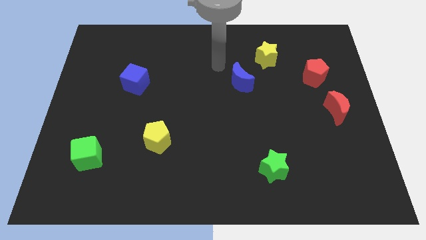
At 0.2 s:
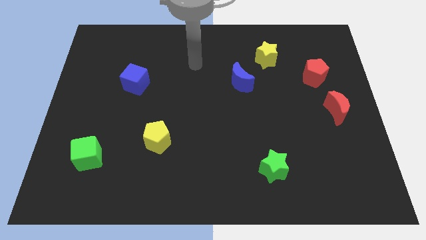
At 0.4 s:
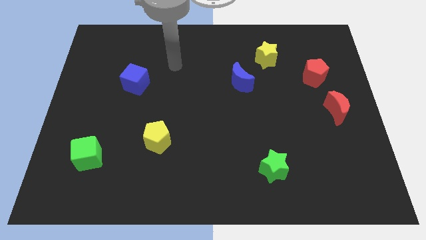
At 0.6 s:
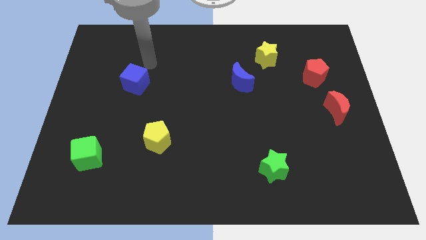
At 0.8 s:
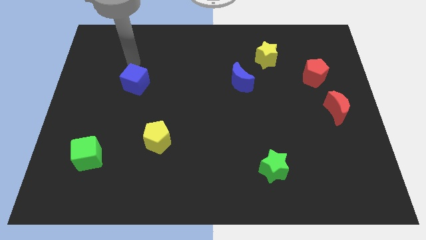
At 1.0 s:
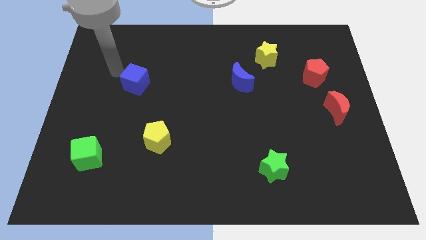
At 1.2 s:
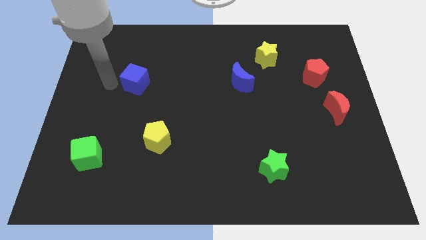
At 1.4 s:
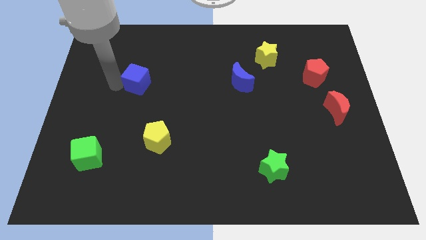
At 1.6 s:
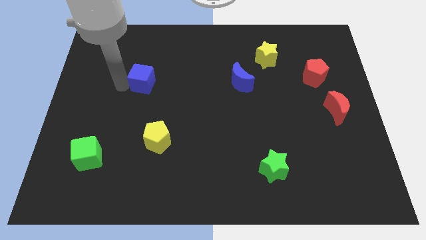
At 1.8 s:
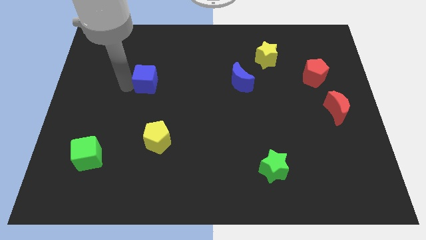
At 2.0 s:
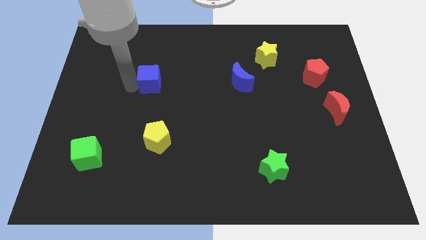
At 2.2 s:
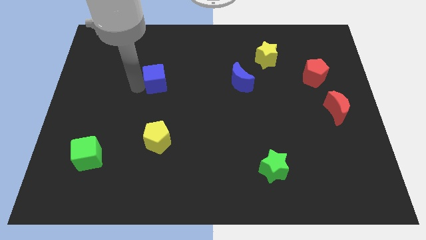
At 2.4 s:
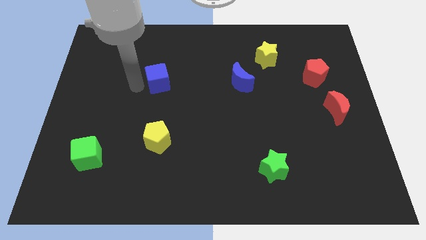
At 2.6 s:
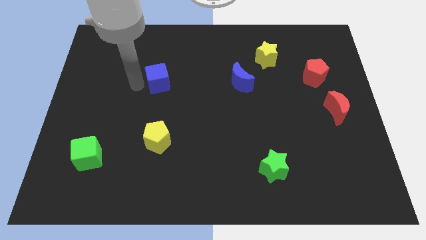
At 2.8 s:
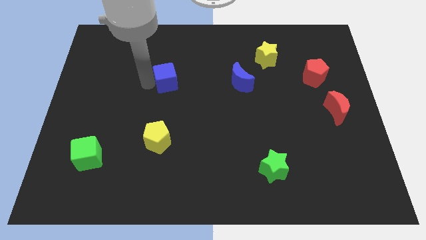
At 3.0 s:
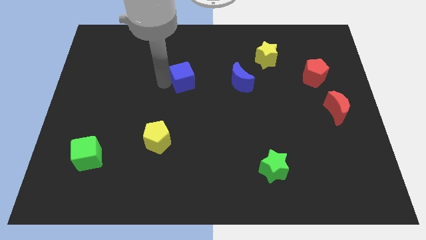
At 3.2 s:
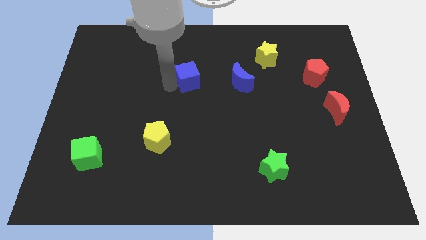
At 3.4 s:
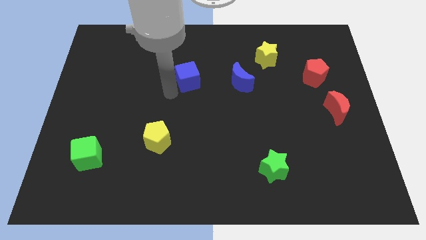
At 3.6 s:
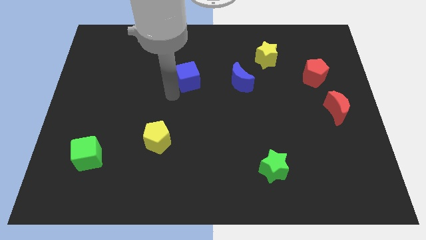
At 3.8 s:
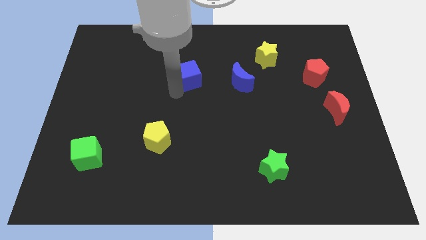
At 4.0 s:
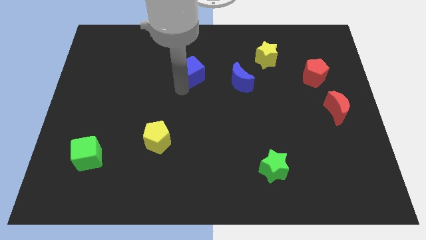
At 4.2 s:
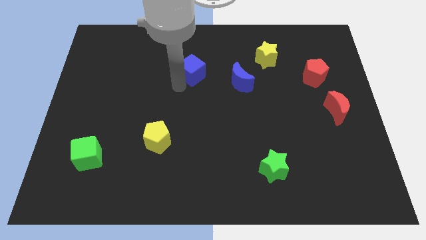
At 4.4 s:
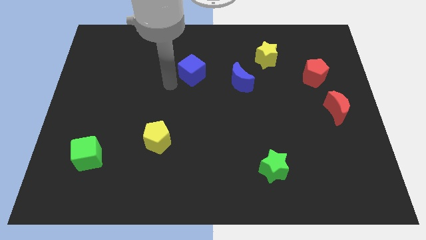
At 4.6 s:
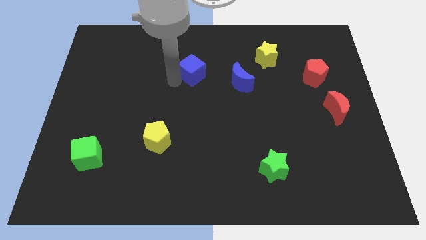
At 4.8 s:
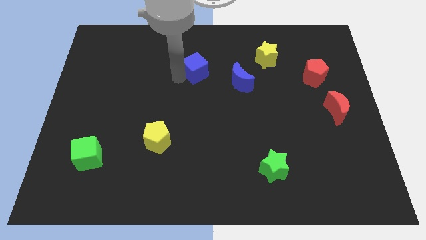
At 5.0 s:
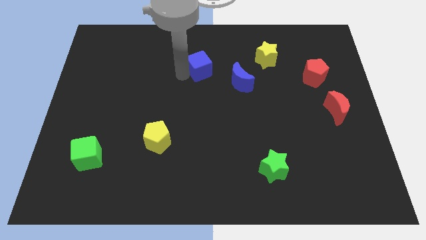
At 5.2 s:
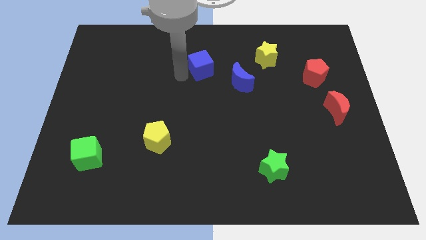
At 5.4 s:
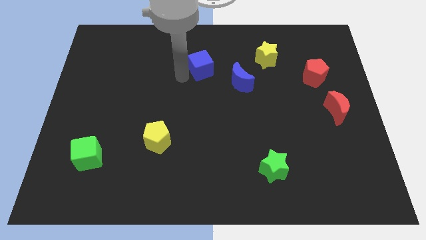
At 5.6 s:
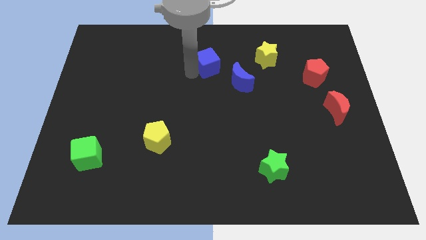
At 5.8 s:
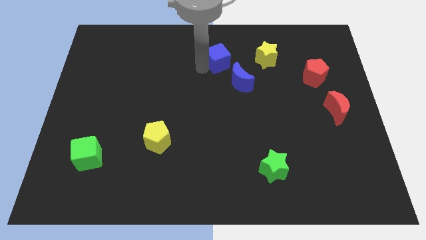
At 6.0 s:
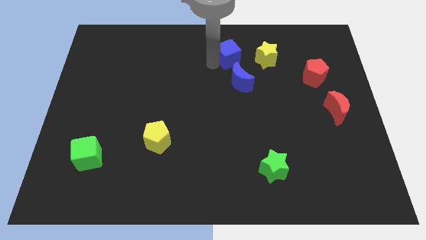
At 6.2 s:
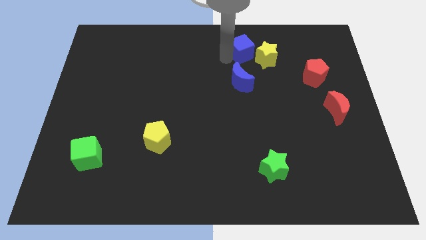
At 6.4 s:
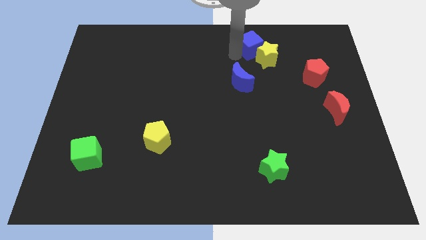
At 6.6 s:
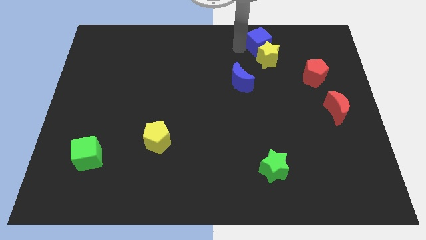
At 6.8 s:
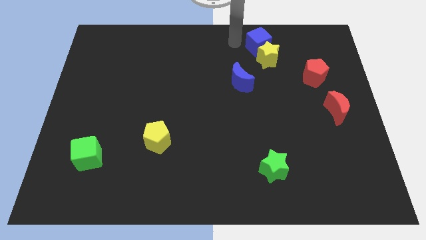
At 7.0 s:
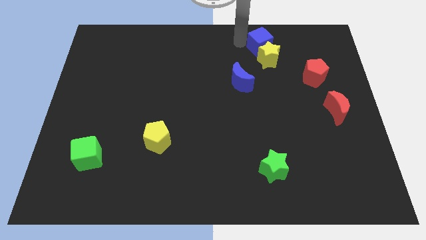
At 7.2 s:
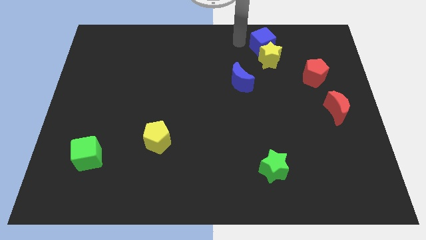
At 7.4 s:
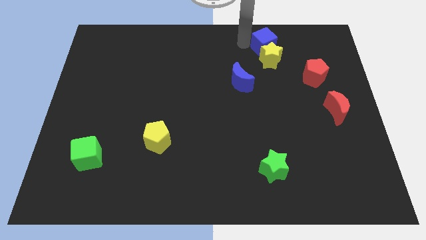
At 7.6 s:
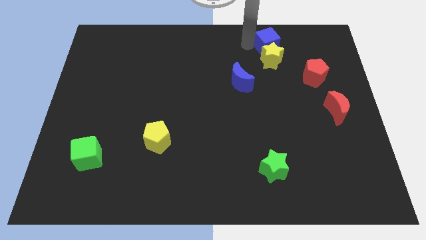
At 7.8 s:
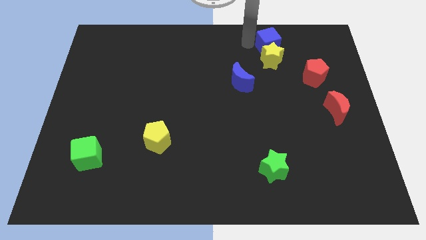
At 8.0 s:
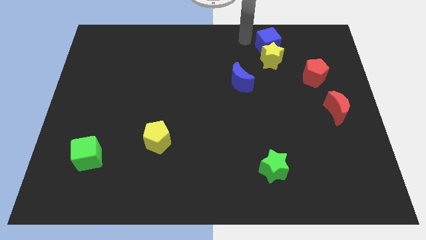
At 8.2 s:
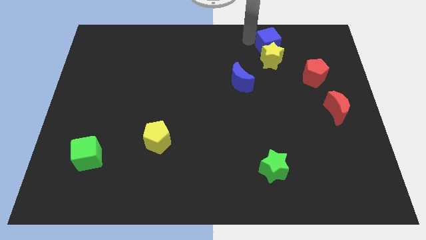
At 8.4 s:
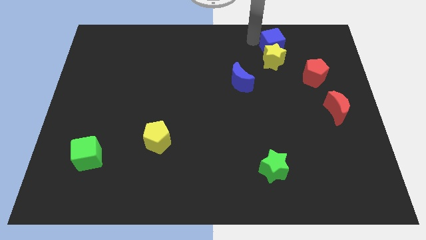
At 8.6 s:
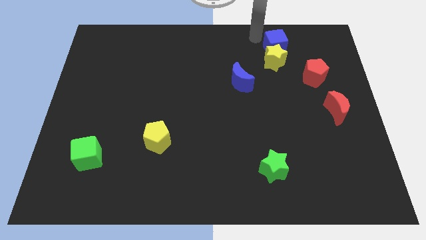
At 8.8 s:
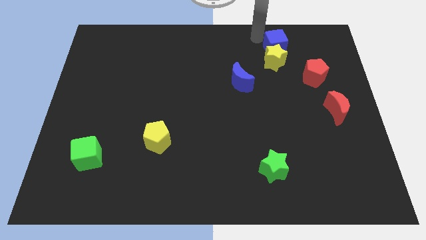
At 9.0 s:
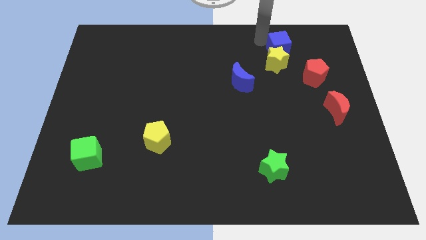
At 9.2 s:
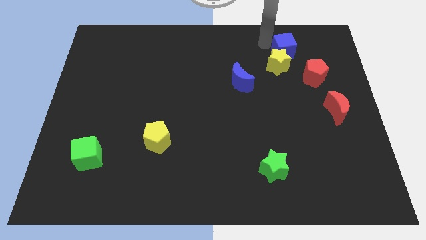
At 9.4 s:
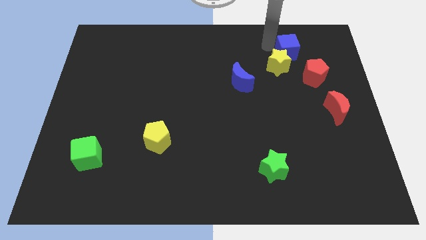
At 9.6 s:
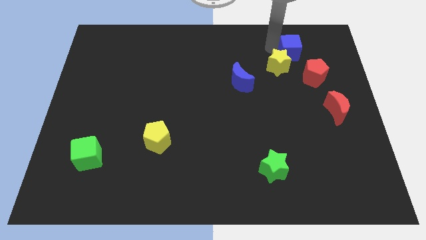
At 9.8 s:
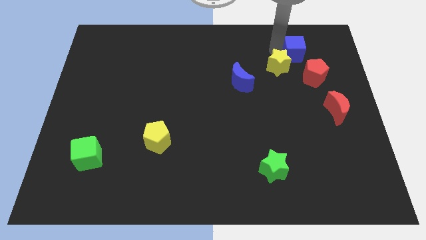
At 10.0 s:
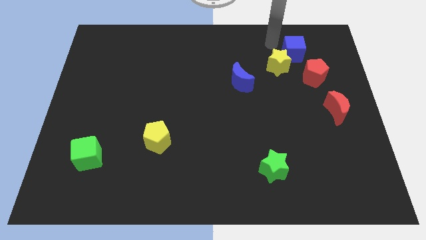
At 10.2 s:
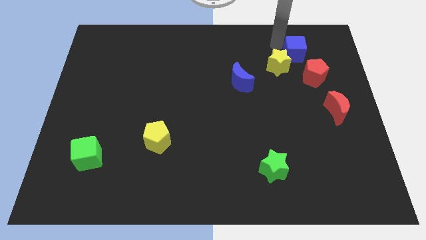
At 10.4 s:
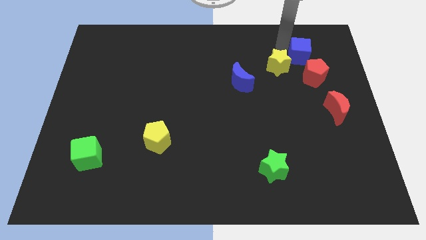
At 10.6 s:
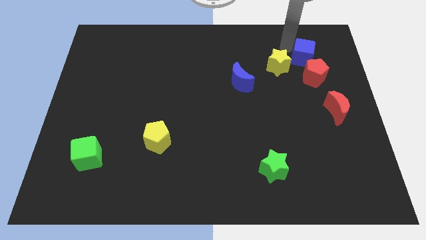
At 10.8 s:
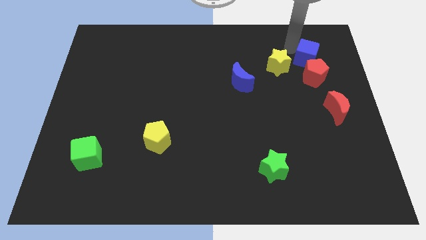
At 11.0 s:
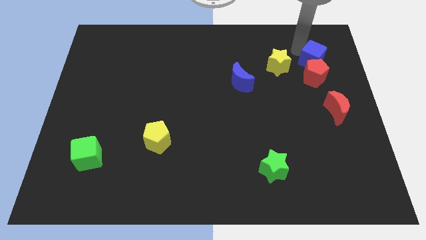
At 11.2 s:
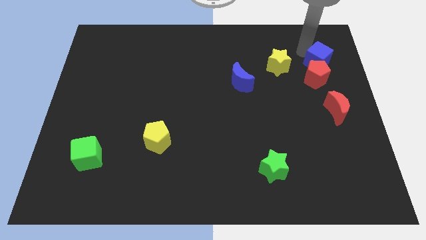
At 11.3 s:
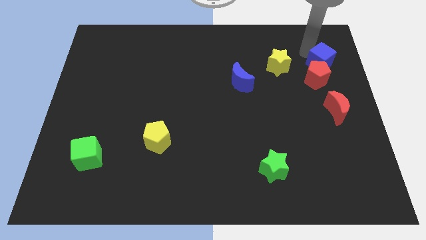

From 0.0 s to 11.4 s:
slide the blue cube to the top of the red moon

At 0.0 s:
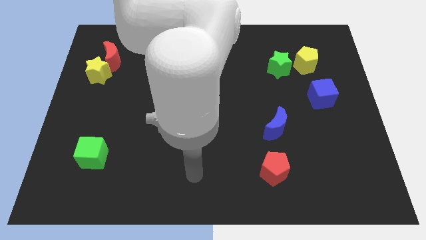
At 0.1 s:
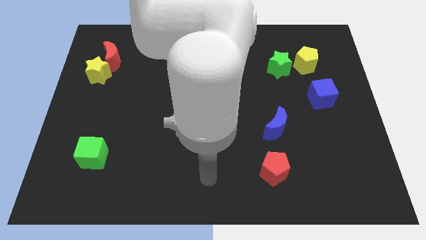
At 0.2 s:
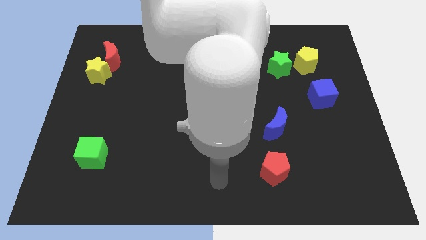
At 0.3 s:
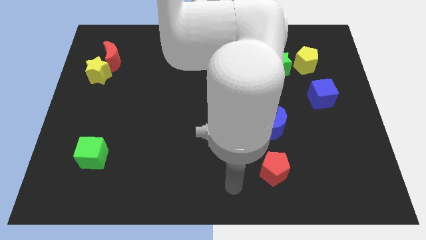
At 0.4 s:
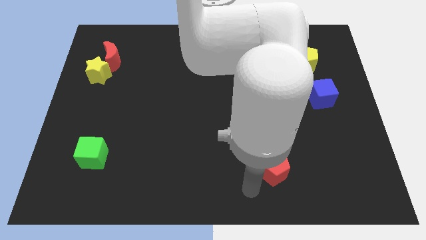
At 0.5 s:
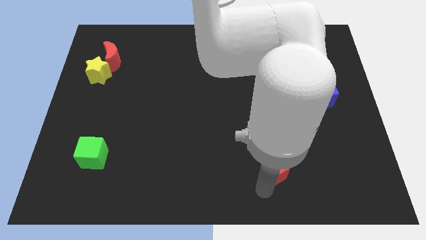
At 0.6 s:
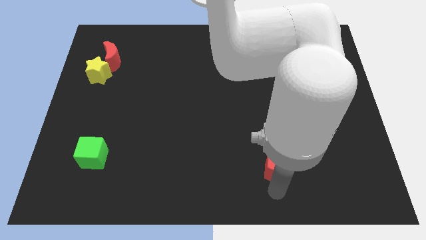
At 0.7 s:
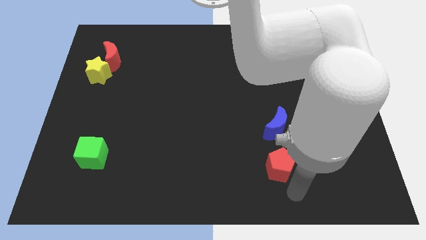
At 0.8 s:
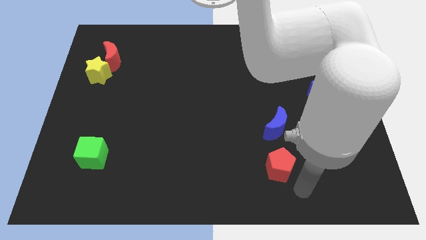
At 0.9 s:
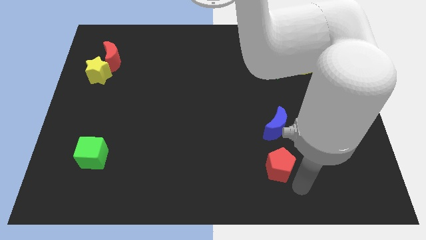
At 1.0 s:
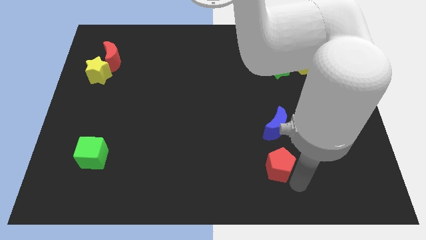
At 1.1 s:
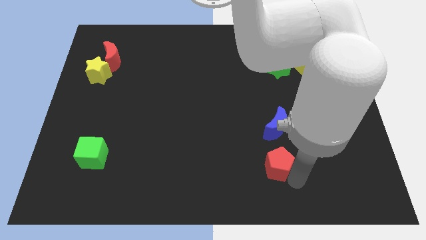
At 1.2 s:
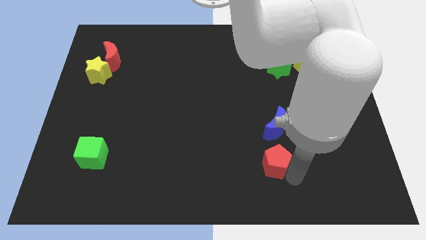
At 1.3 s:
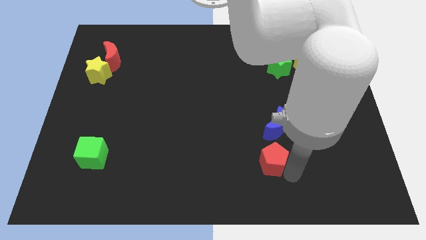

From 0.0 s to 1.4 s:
push the red pentagon to the bottom left of the blue moon

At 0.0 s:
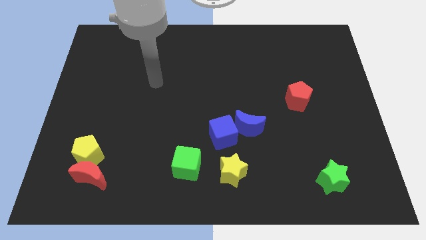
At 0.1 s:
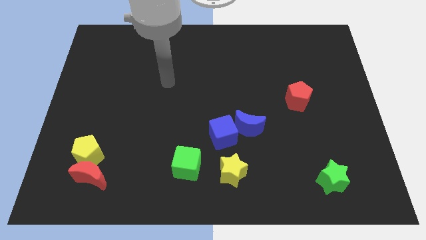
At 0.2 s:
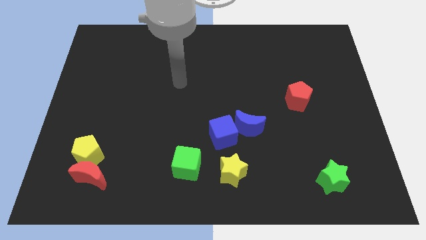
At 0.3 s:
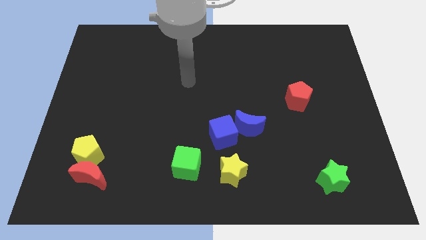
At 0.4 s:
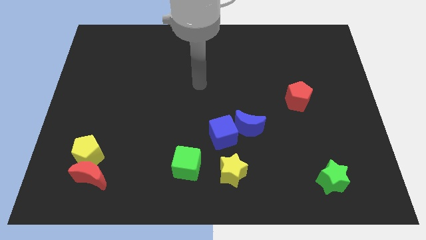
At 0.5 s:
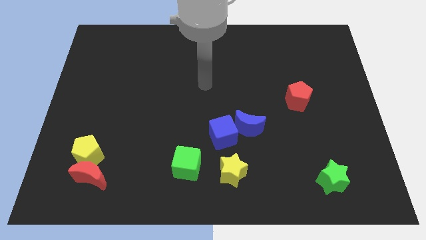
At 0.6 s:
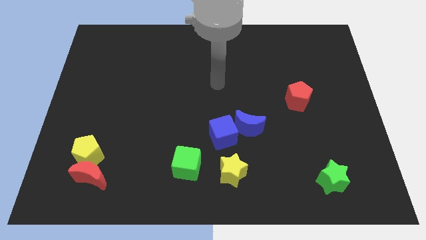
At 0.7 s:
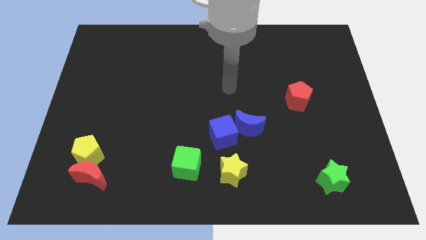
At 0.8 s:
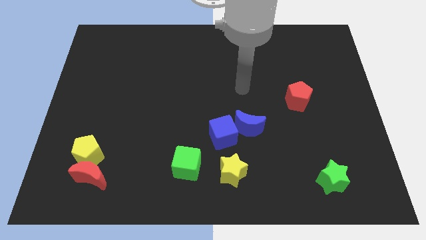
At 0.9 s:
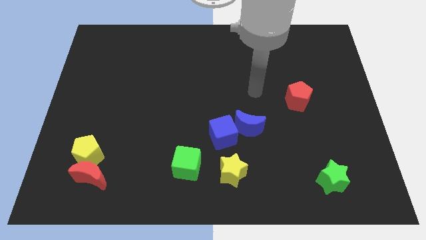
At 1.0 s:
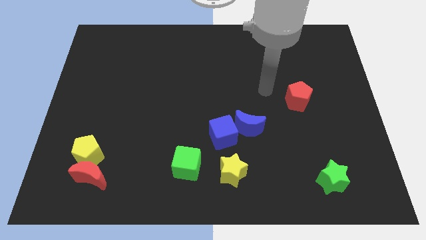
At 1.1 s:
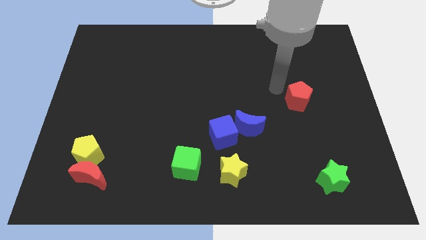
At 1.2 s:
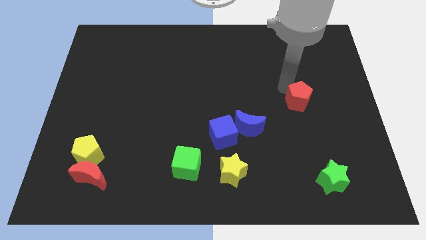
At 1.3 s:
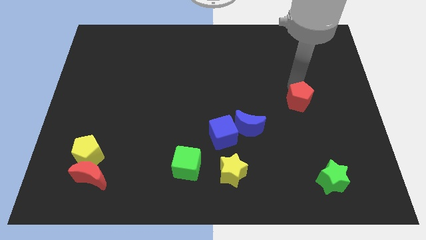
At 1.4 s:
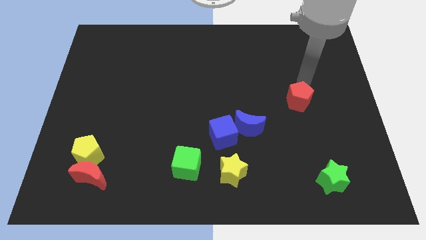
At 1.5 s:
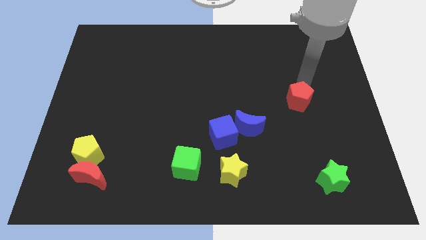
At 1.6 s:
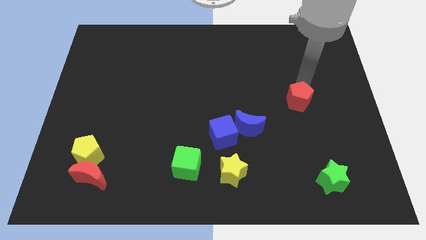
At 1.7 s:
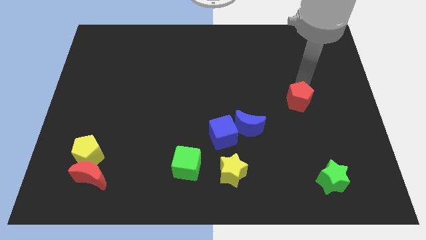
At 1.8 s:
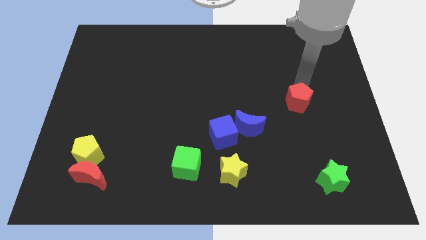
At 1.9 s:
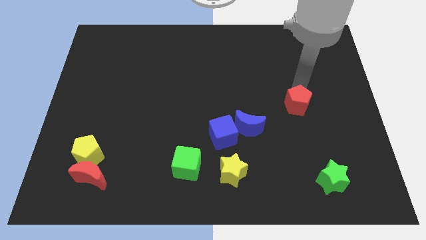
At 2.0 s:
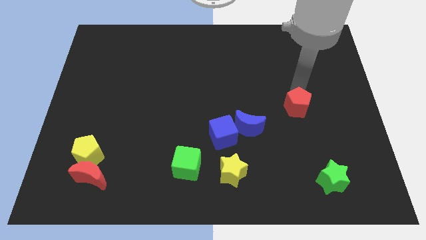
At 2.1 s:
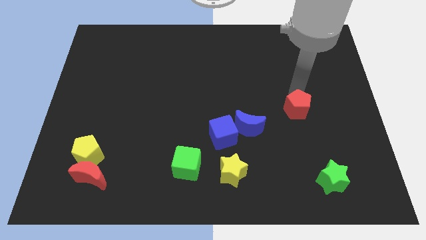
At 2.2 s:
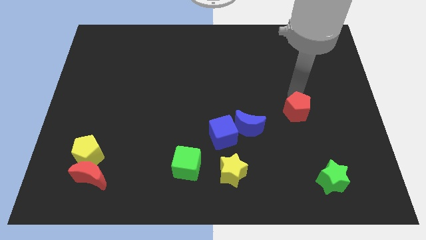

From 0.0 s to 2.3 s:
slide the red pentagon right of the blue moon
